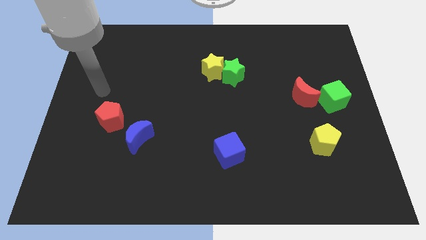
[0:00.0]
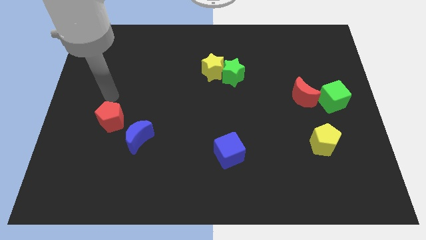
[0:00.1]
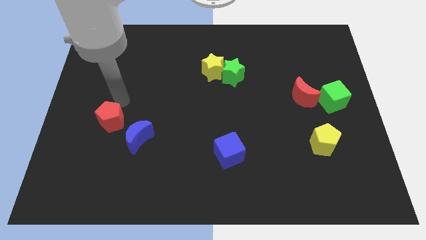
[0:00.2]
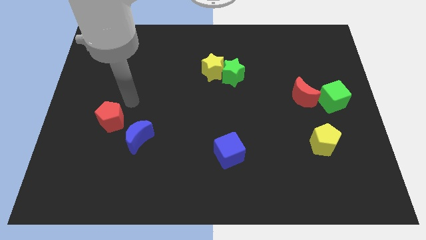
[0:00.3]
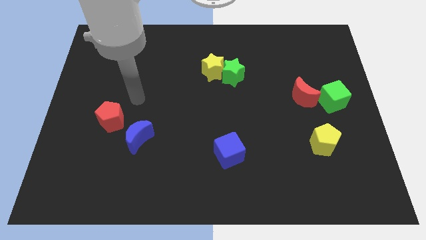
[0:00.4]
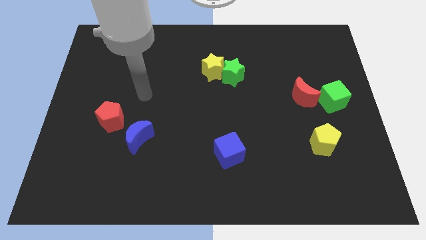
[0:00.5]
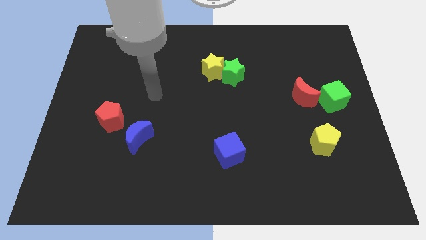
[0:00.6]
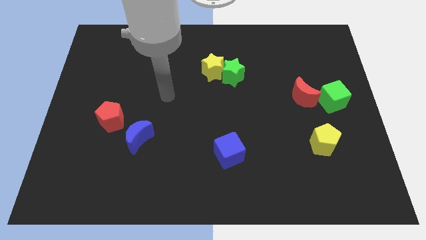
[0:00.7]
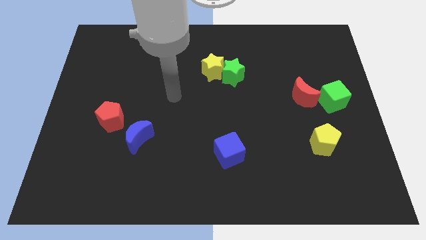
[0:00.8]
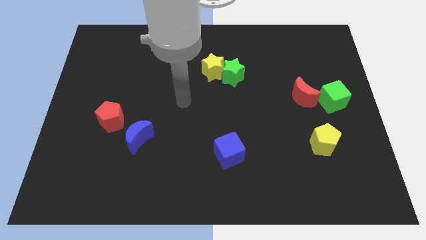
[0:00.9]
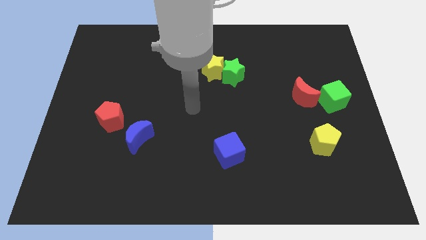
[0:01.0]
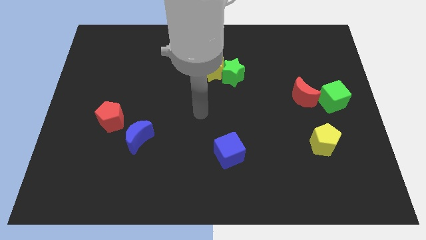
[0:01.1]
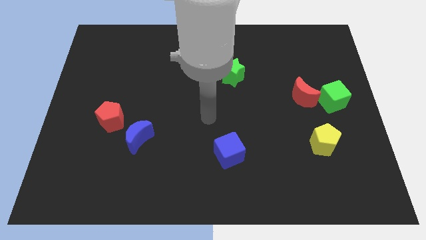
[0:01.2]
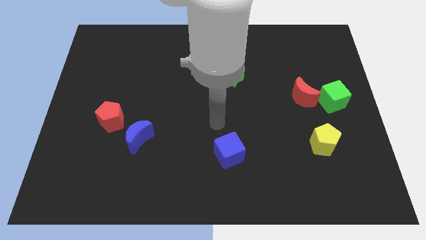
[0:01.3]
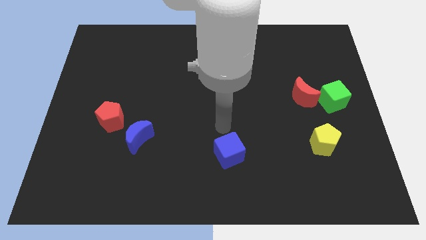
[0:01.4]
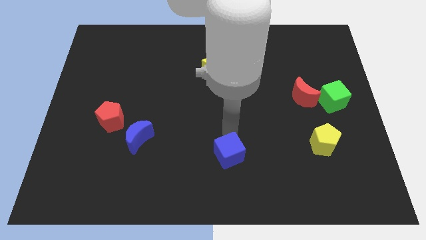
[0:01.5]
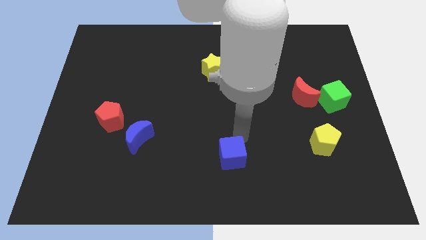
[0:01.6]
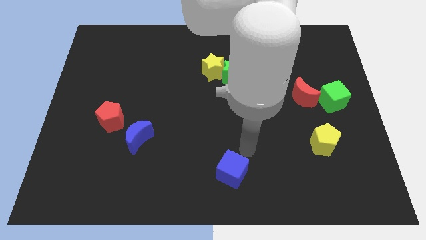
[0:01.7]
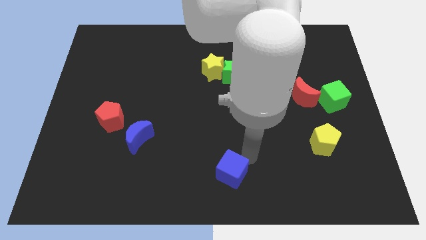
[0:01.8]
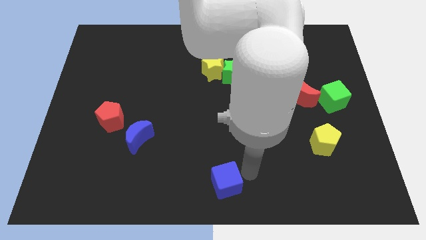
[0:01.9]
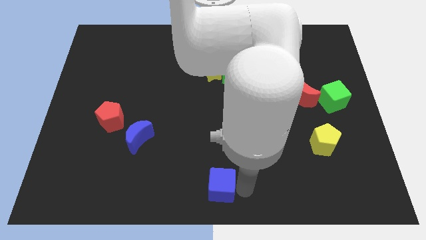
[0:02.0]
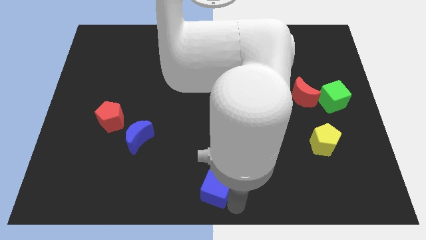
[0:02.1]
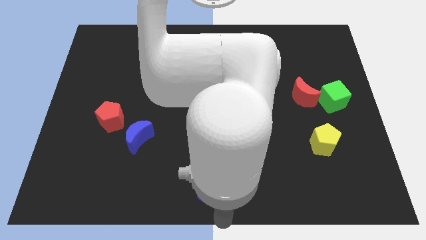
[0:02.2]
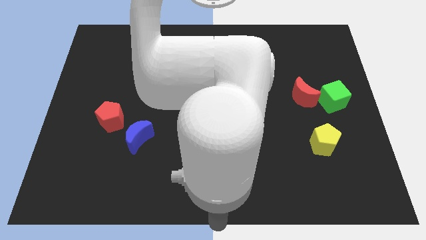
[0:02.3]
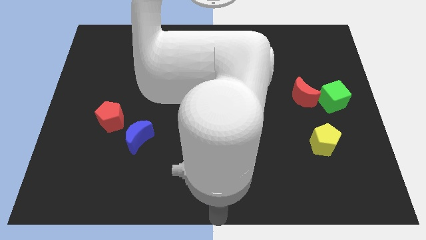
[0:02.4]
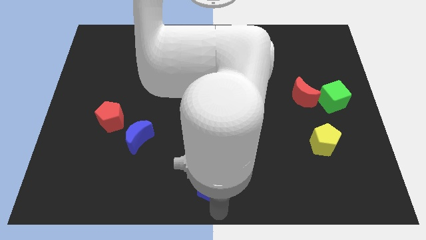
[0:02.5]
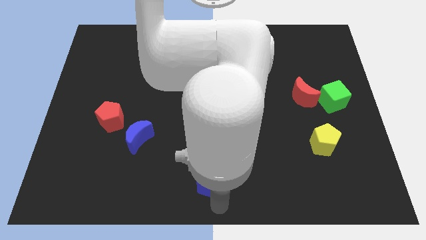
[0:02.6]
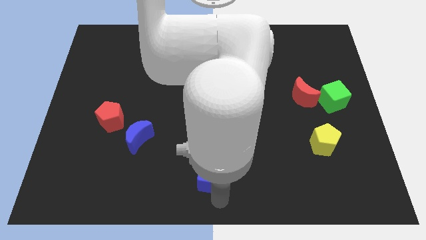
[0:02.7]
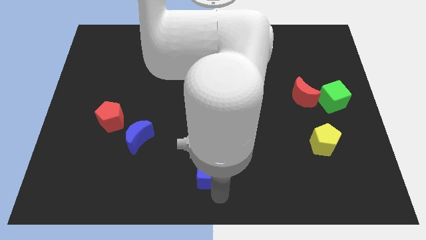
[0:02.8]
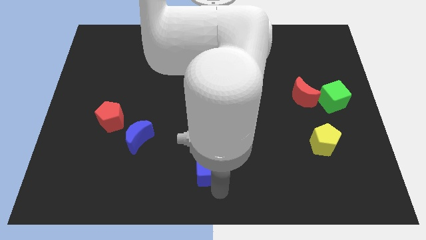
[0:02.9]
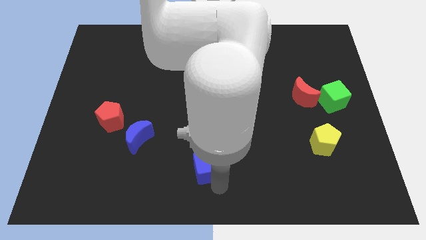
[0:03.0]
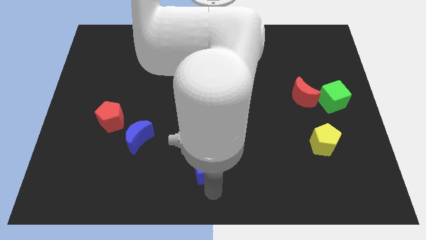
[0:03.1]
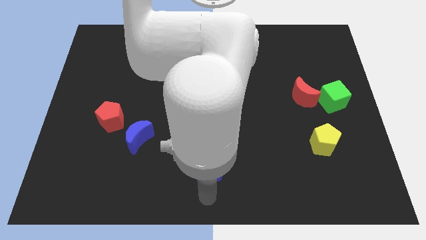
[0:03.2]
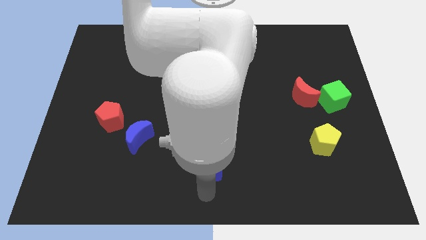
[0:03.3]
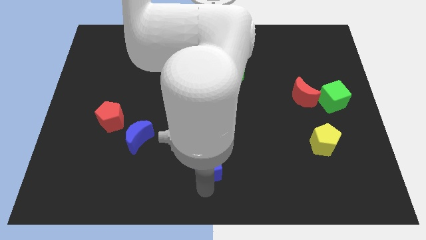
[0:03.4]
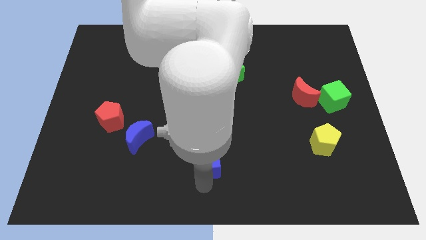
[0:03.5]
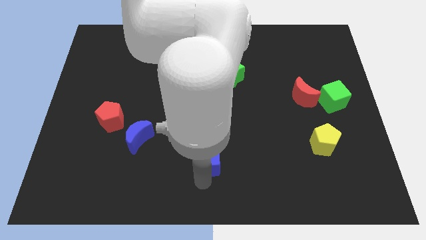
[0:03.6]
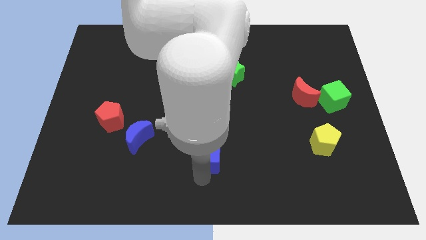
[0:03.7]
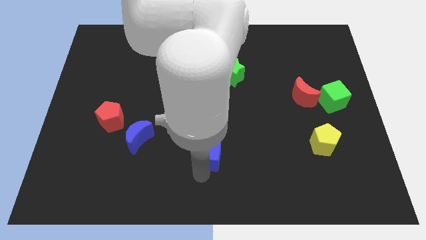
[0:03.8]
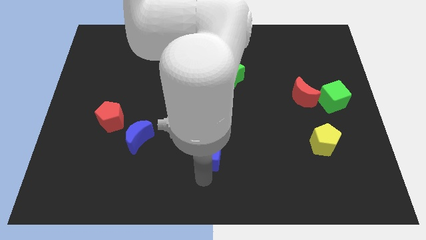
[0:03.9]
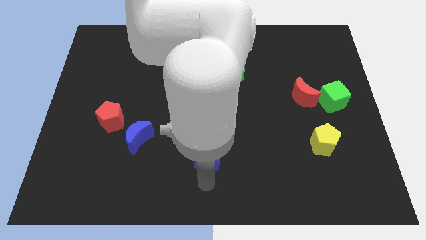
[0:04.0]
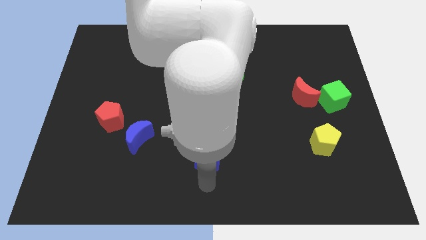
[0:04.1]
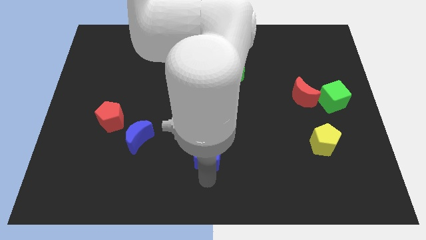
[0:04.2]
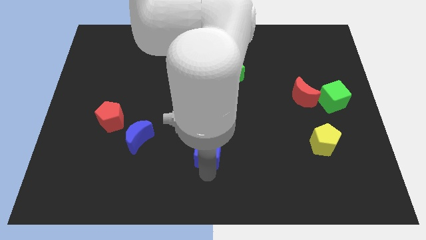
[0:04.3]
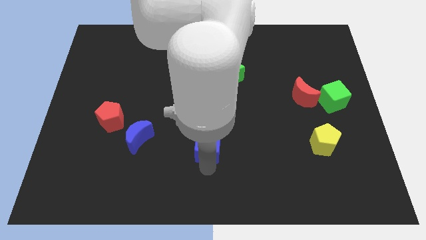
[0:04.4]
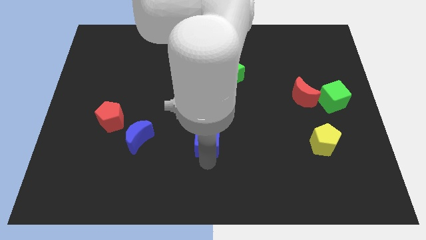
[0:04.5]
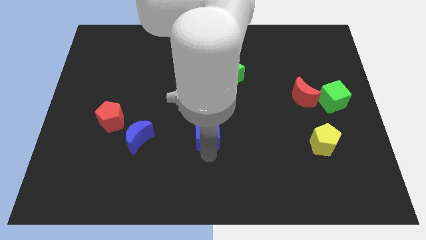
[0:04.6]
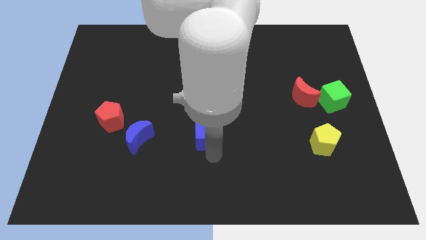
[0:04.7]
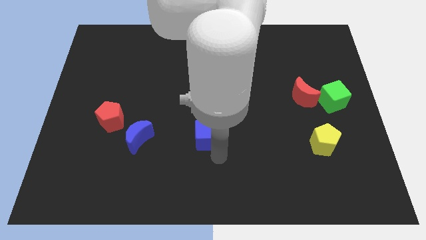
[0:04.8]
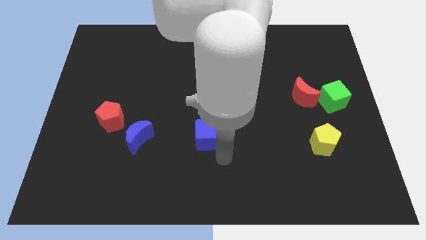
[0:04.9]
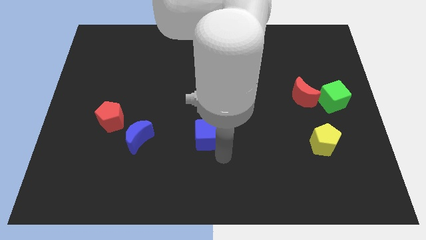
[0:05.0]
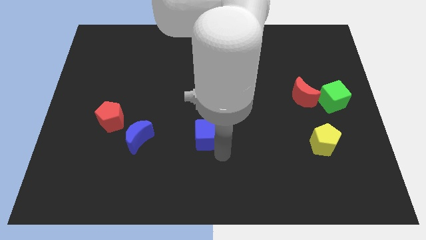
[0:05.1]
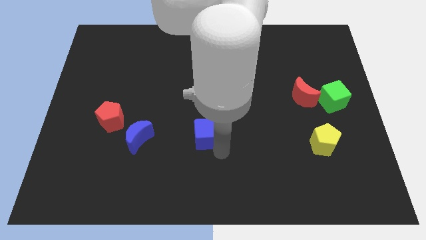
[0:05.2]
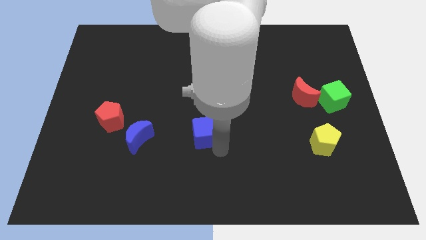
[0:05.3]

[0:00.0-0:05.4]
slide the blue cube up and to the left slightly

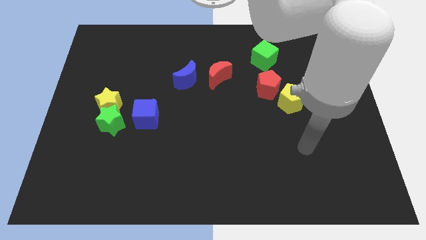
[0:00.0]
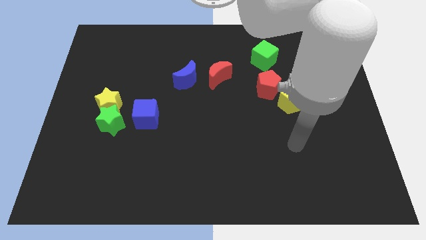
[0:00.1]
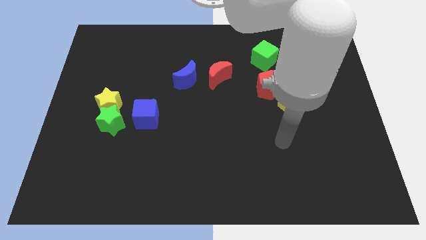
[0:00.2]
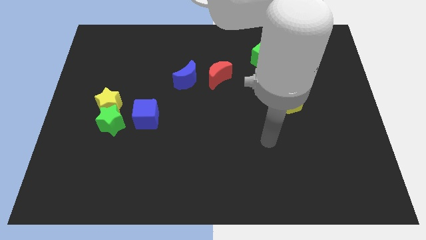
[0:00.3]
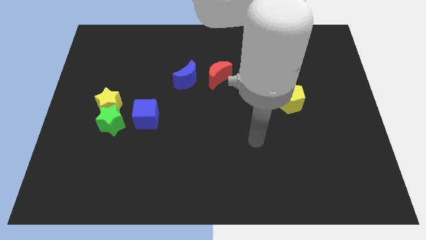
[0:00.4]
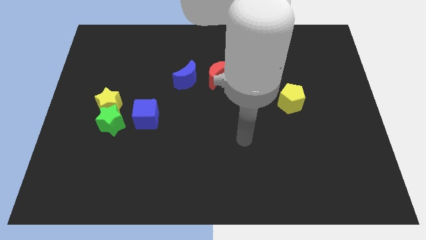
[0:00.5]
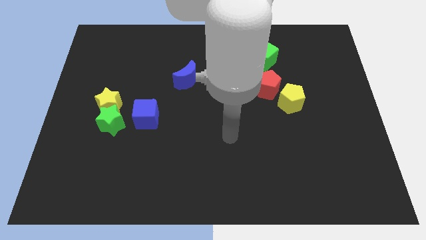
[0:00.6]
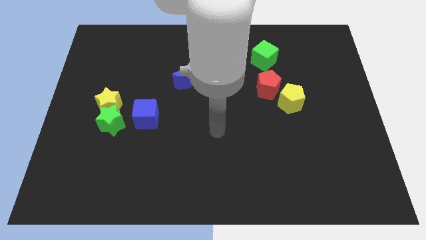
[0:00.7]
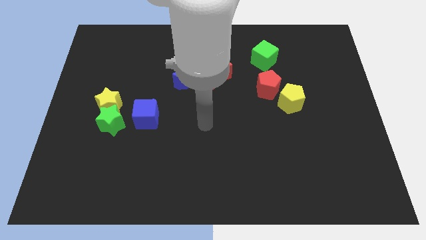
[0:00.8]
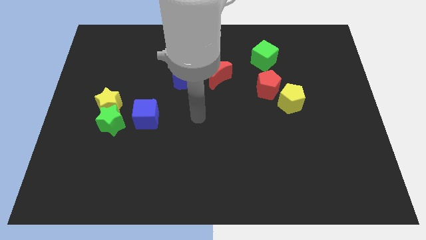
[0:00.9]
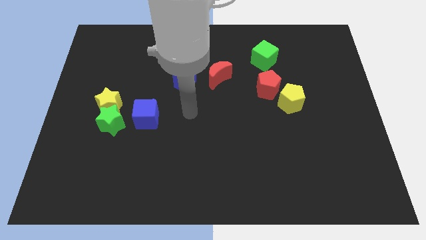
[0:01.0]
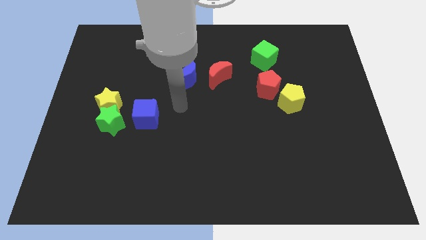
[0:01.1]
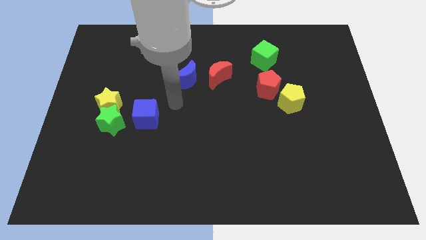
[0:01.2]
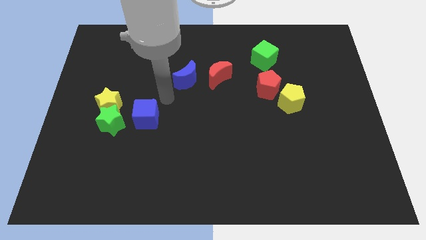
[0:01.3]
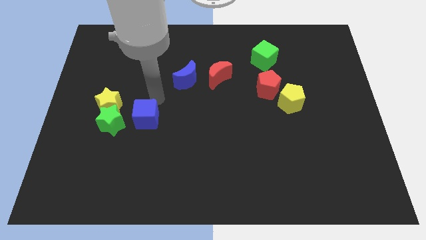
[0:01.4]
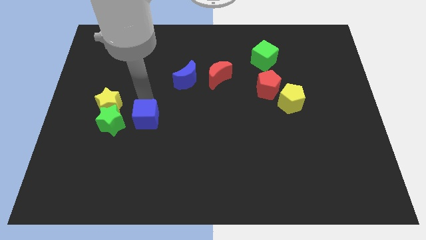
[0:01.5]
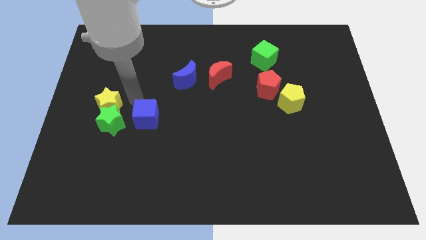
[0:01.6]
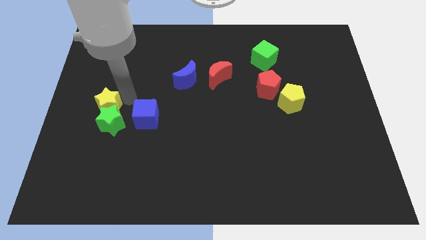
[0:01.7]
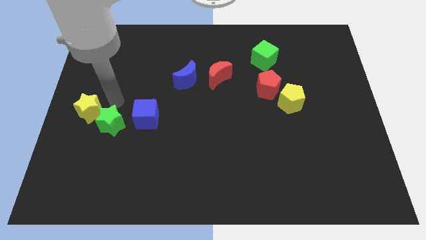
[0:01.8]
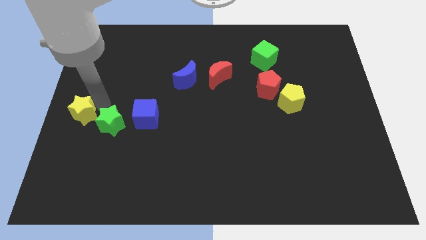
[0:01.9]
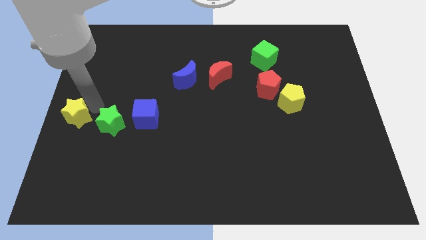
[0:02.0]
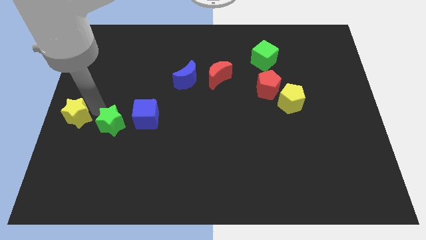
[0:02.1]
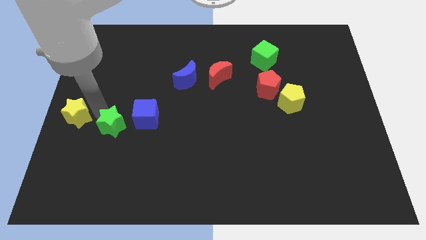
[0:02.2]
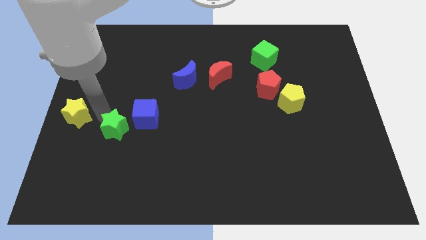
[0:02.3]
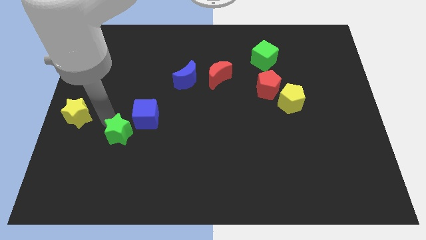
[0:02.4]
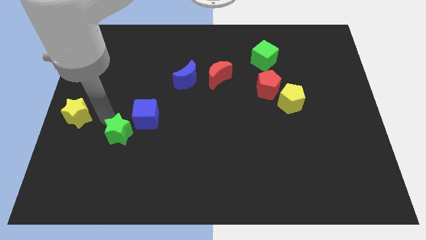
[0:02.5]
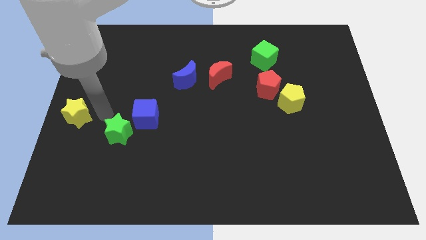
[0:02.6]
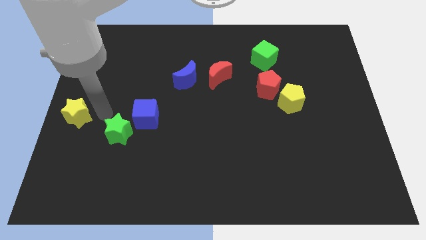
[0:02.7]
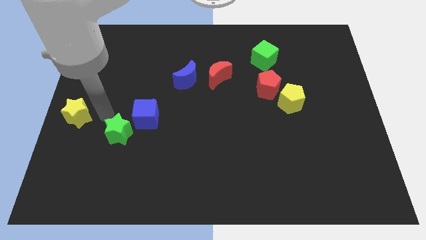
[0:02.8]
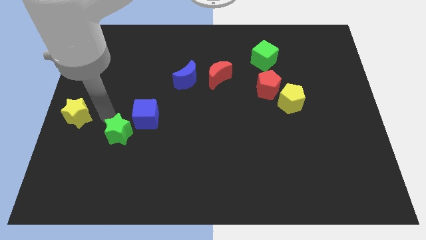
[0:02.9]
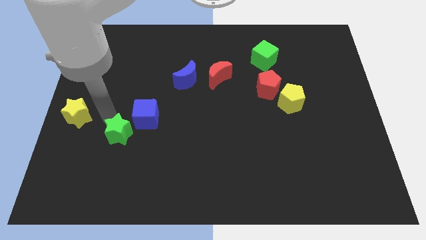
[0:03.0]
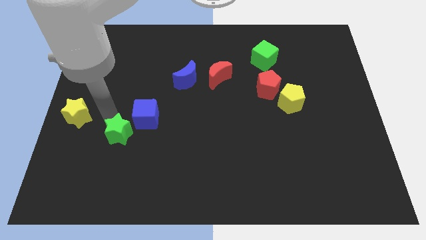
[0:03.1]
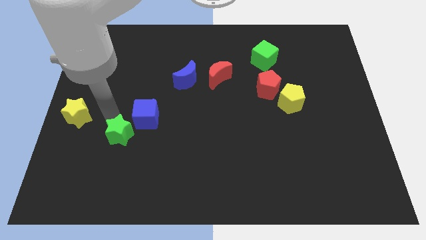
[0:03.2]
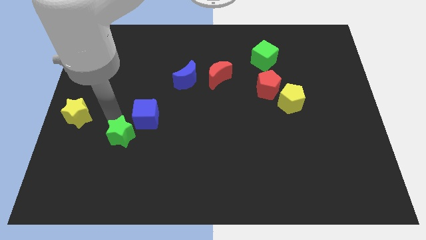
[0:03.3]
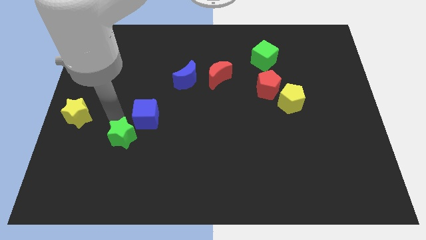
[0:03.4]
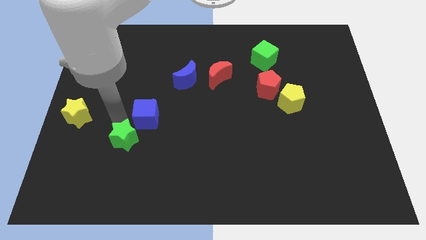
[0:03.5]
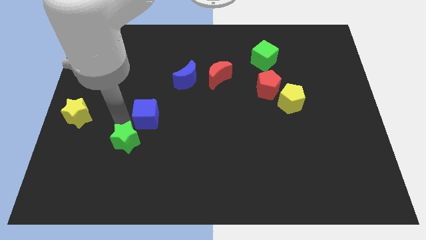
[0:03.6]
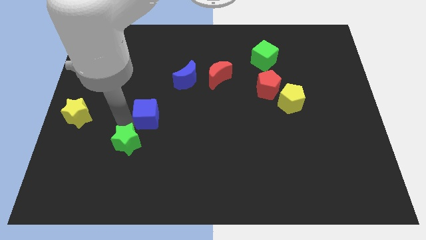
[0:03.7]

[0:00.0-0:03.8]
slide the green star down and to the right a bit
